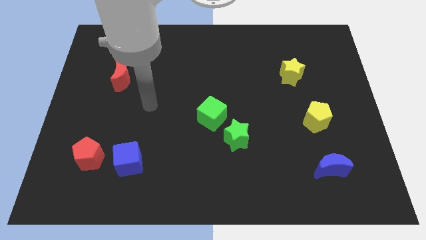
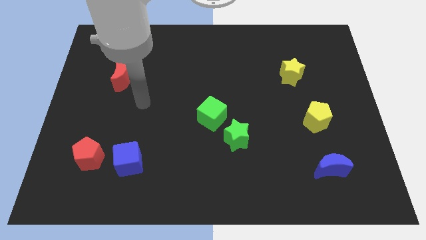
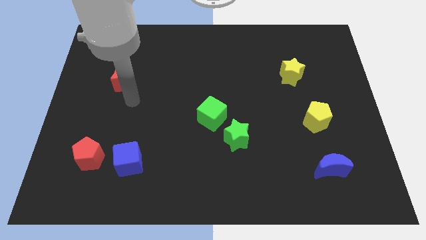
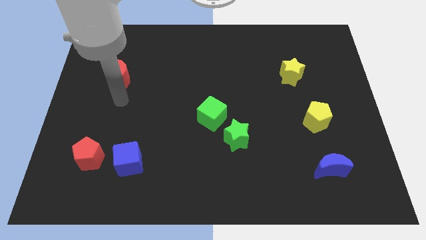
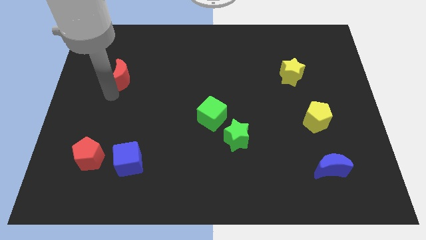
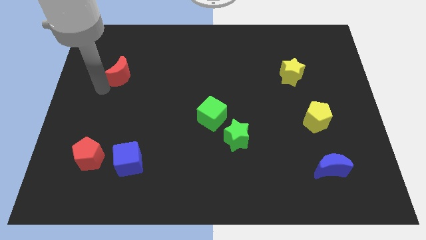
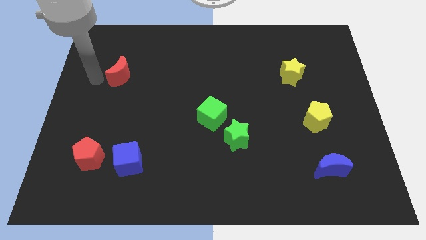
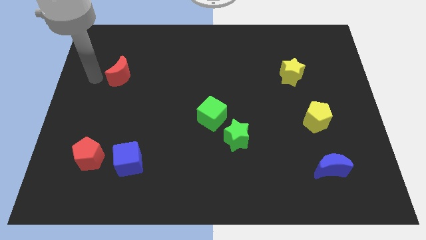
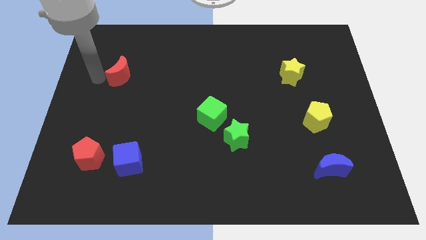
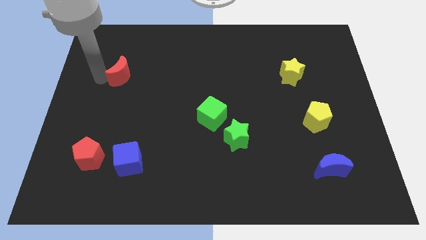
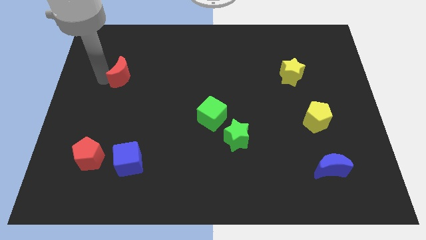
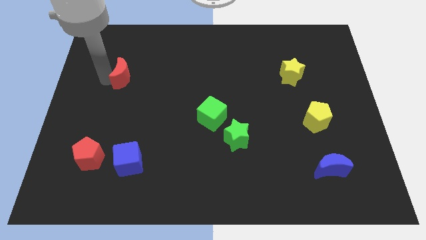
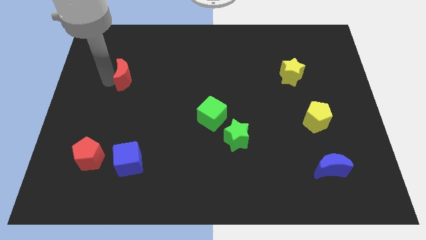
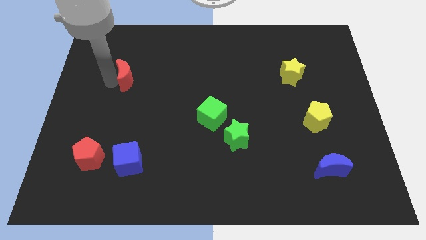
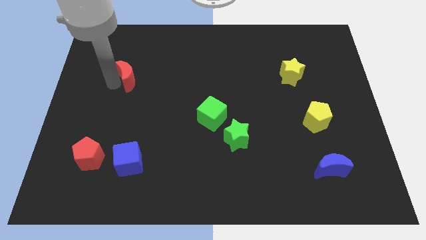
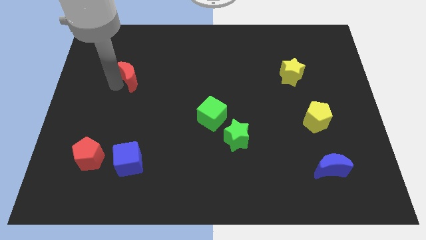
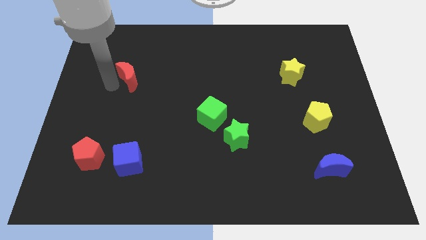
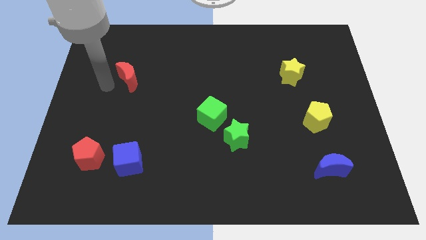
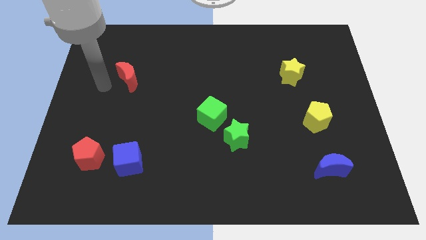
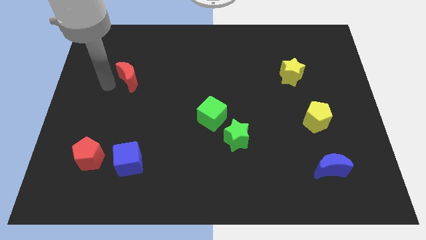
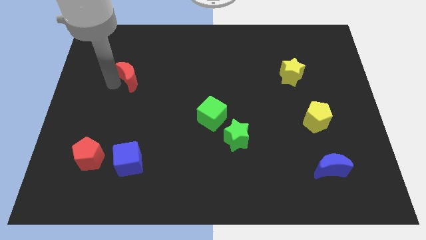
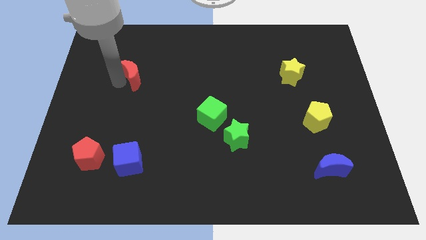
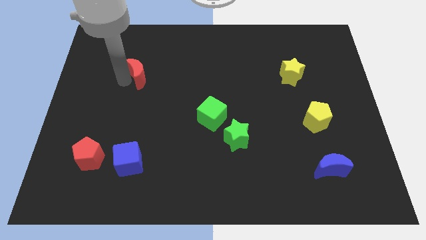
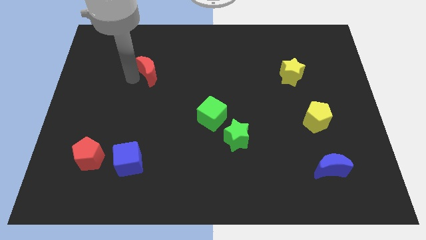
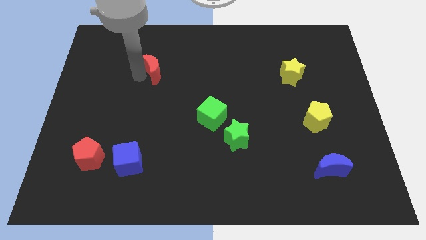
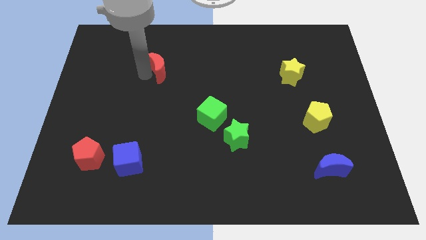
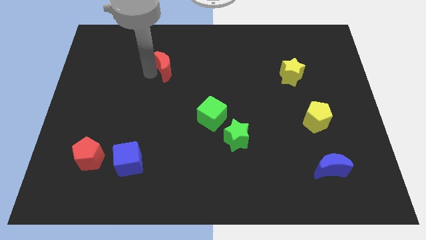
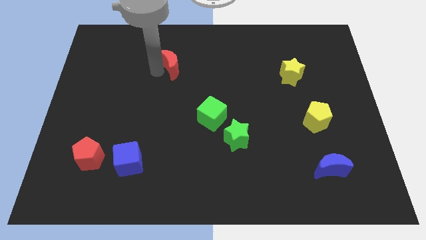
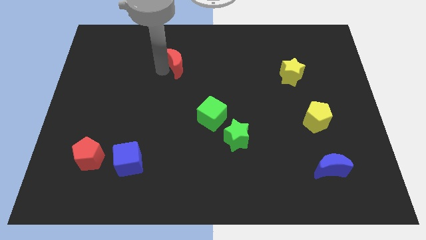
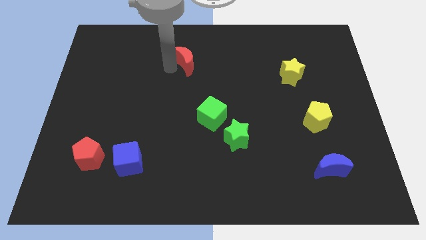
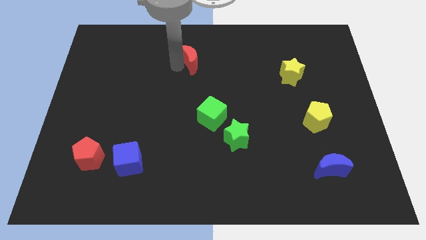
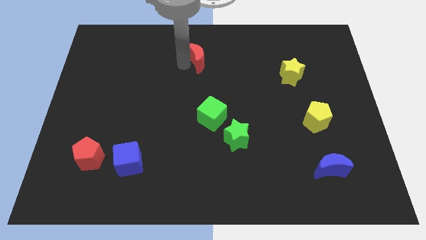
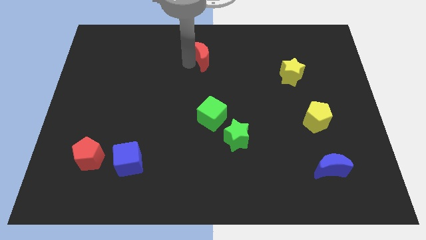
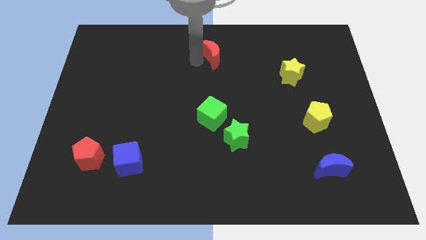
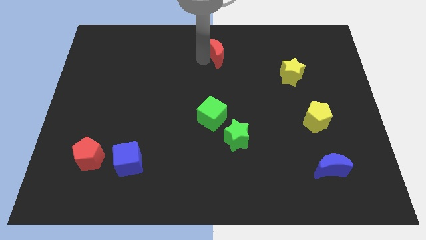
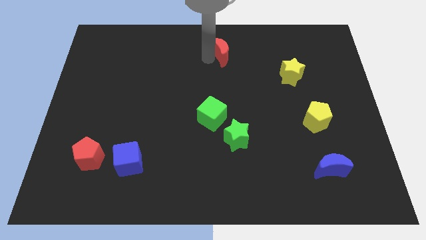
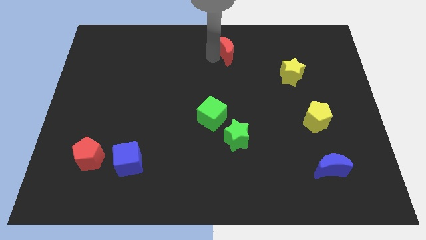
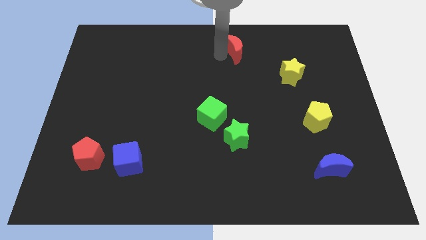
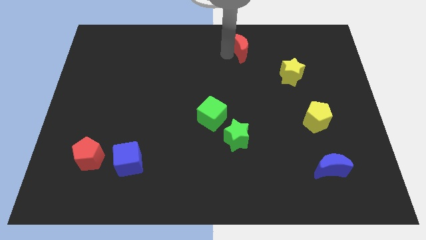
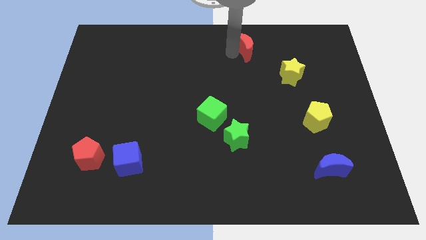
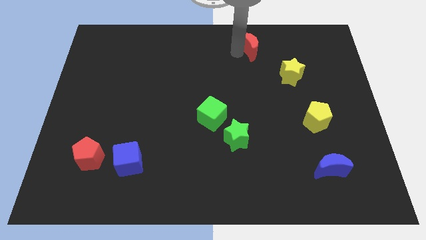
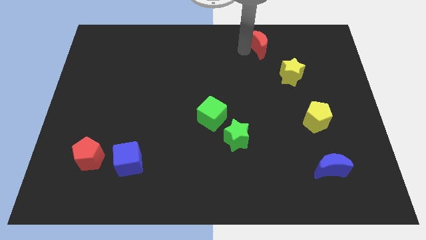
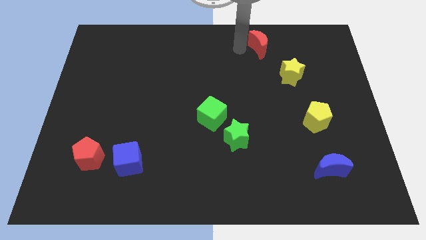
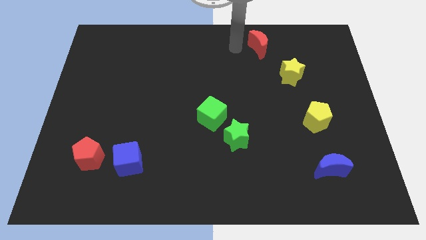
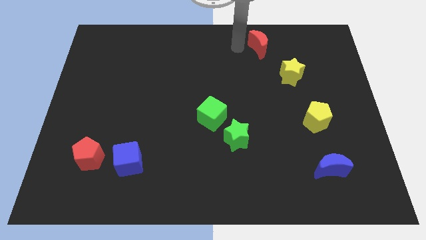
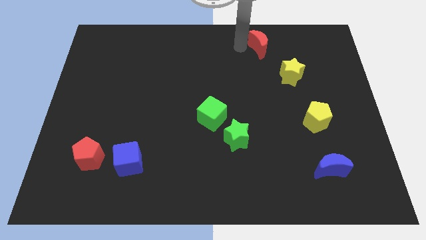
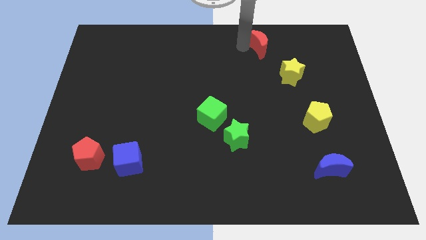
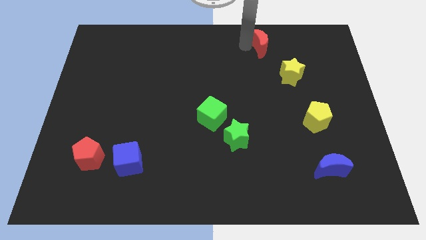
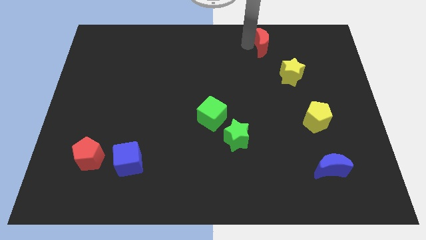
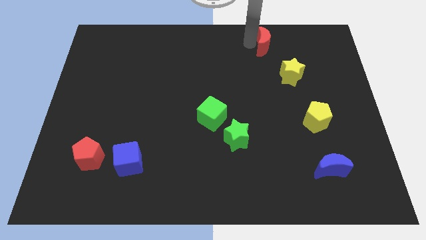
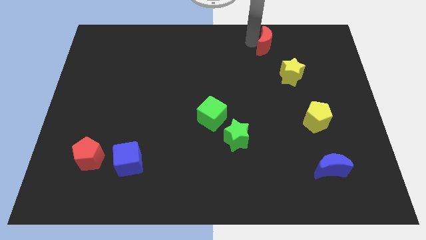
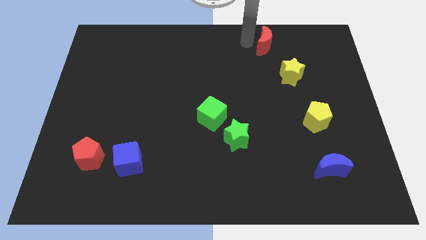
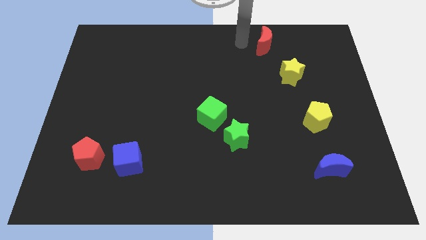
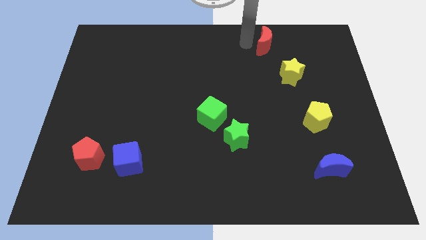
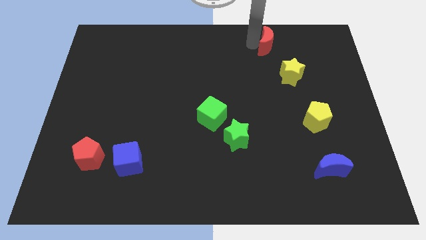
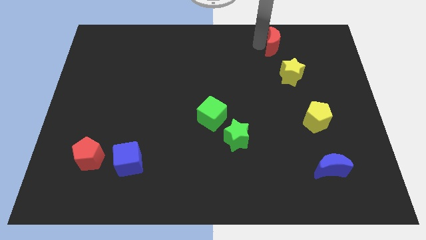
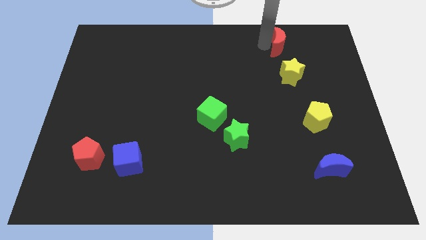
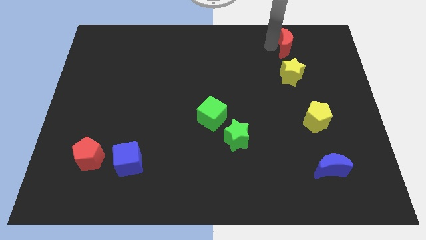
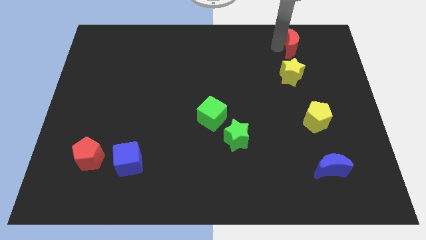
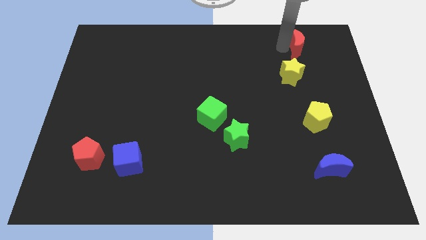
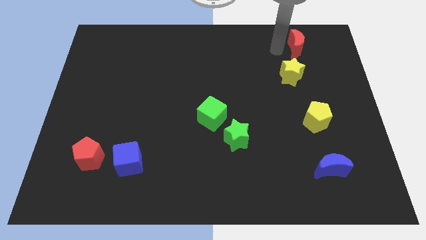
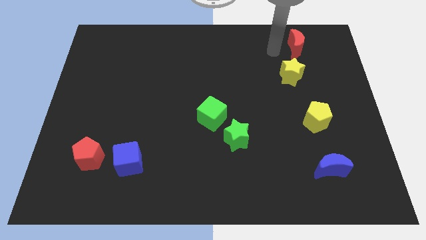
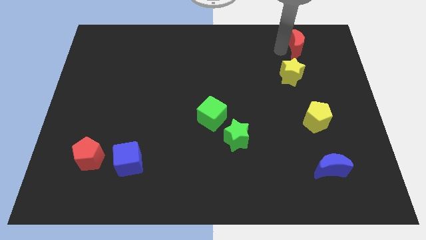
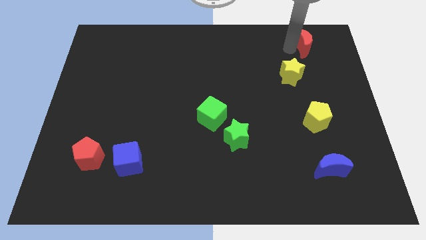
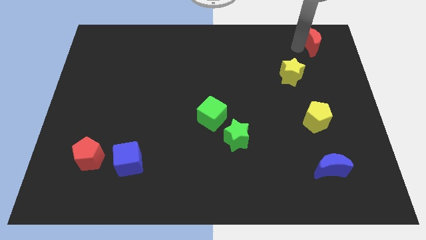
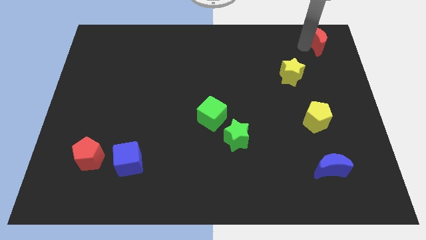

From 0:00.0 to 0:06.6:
push the red moon to the top right corner
